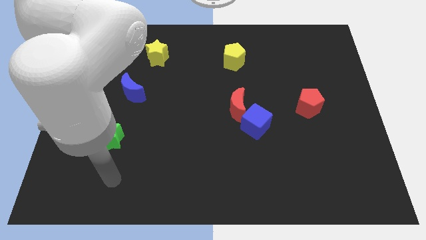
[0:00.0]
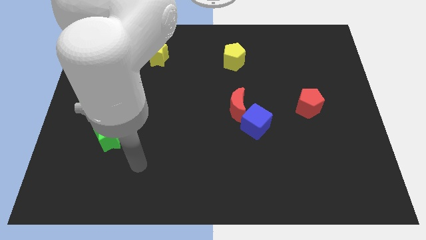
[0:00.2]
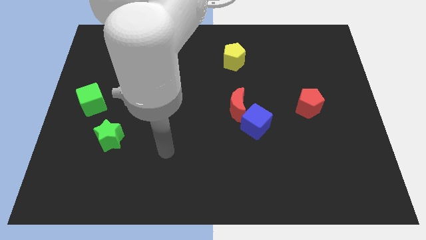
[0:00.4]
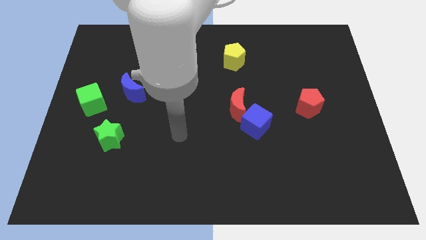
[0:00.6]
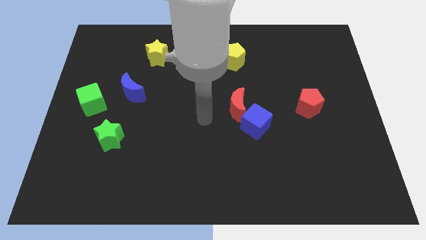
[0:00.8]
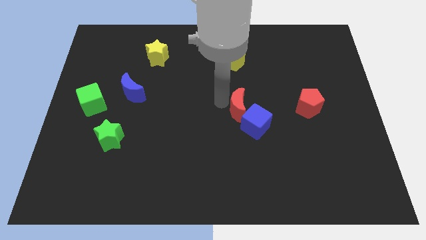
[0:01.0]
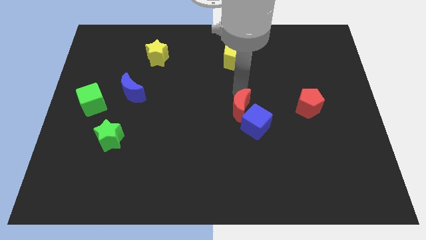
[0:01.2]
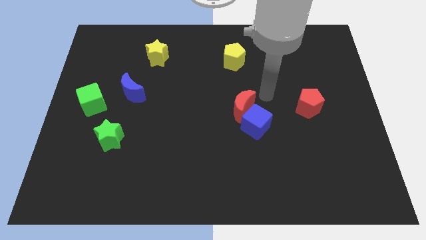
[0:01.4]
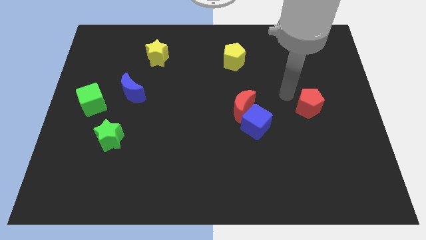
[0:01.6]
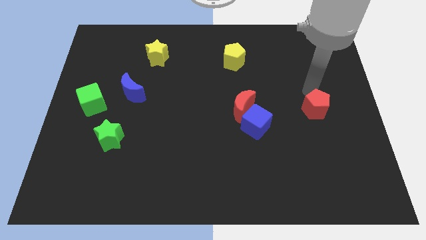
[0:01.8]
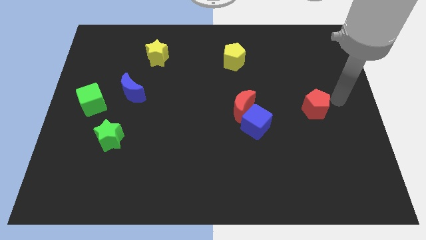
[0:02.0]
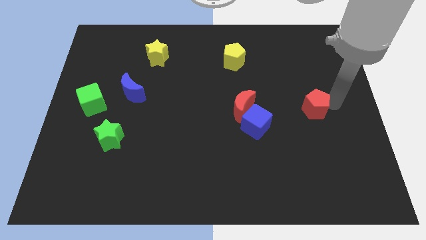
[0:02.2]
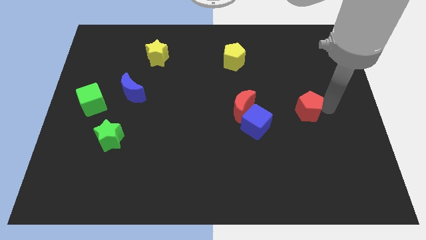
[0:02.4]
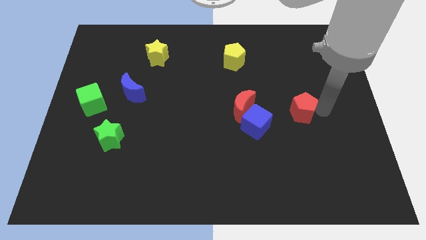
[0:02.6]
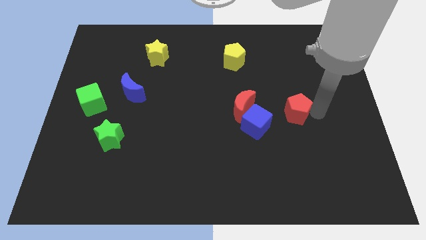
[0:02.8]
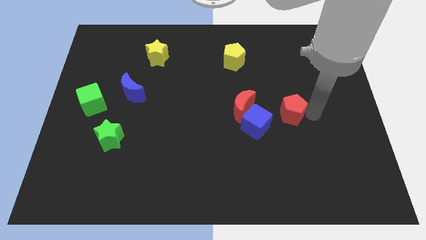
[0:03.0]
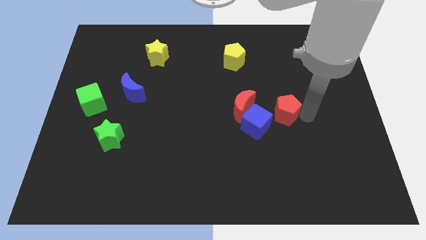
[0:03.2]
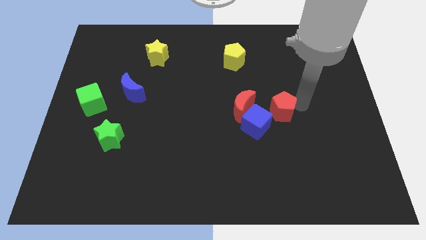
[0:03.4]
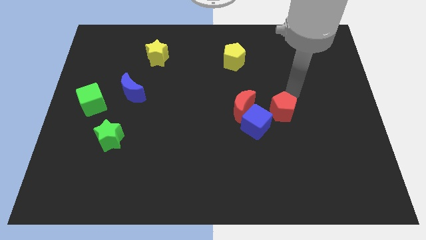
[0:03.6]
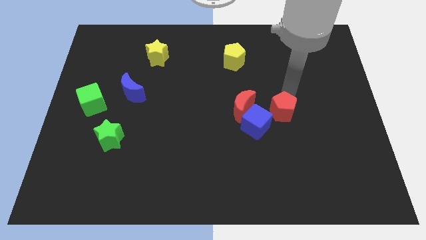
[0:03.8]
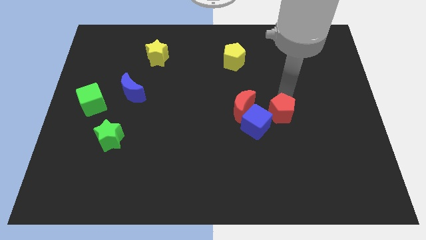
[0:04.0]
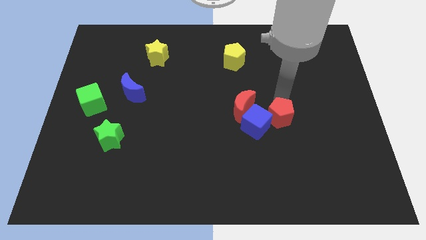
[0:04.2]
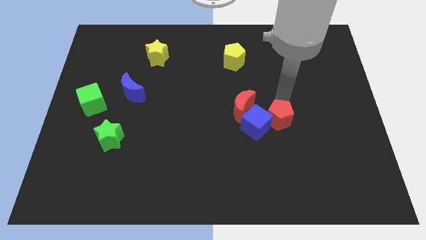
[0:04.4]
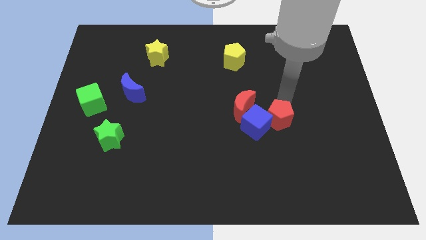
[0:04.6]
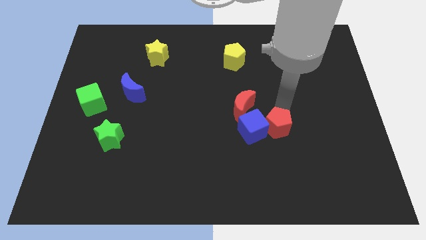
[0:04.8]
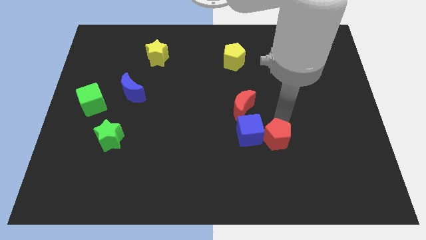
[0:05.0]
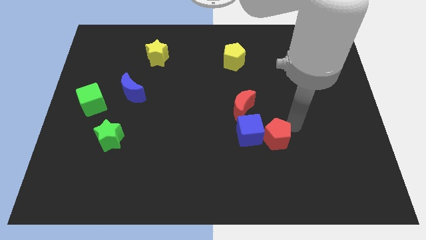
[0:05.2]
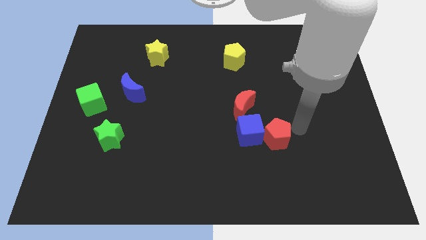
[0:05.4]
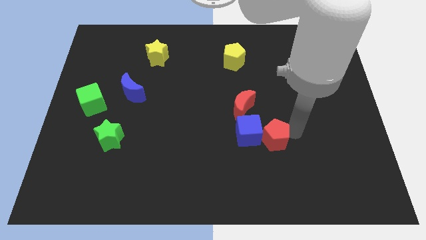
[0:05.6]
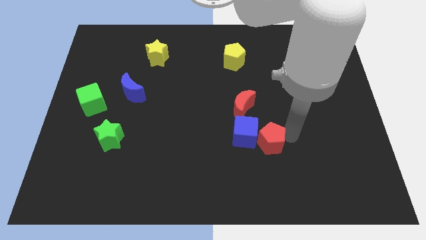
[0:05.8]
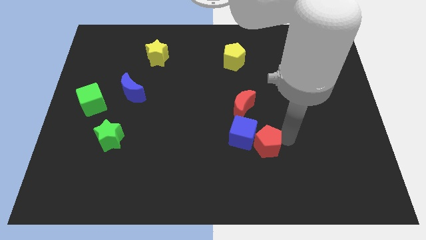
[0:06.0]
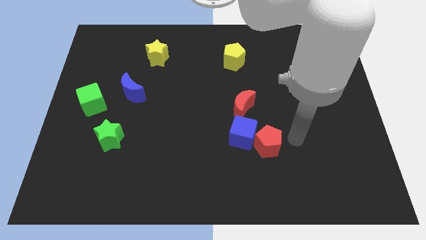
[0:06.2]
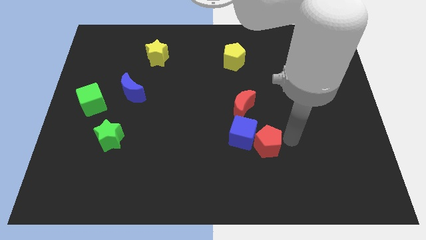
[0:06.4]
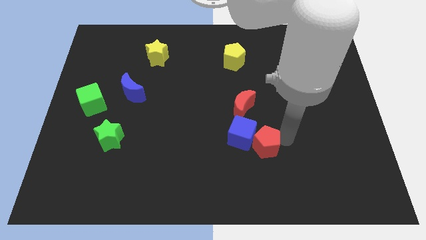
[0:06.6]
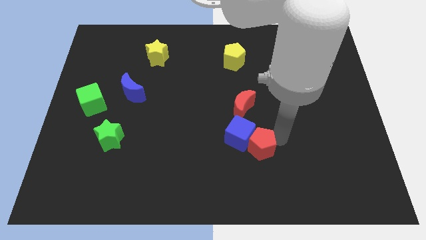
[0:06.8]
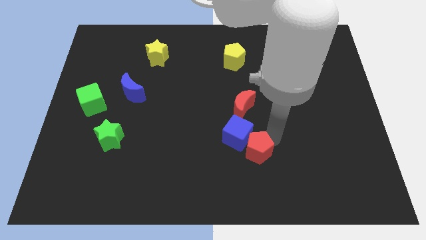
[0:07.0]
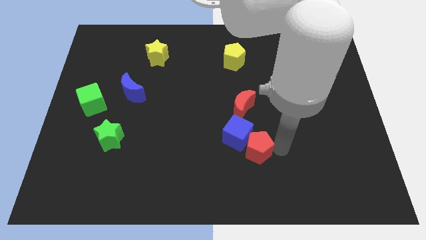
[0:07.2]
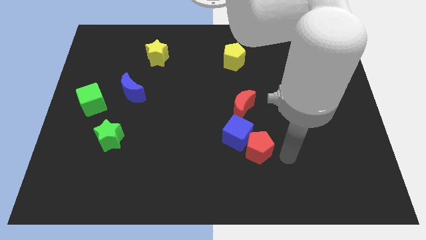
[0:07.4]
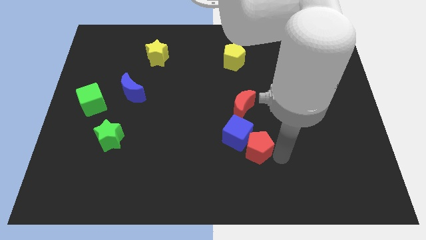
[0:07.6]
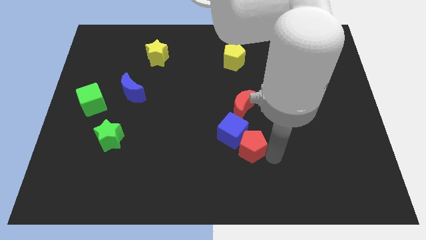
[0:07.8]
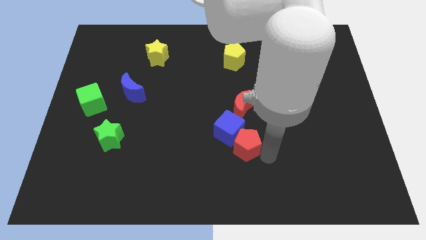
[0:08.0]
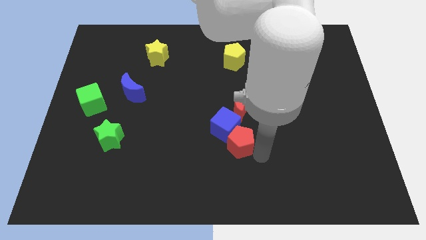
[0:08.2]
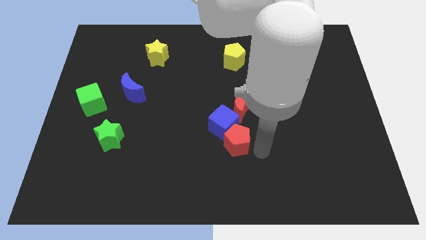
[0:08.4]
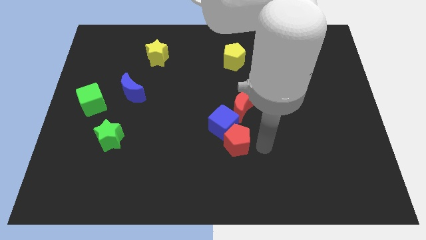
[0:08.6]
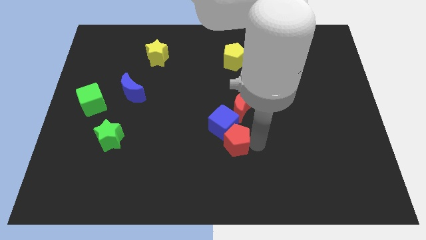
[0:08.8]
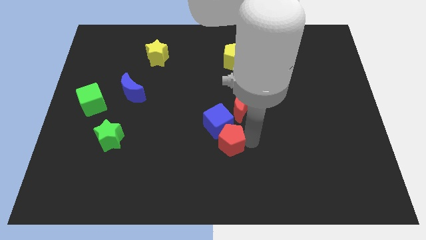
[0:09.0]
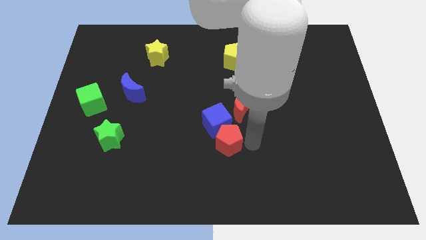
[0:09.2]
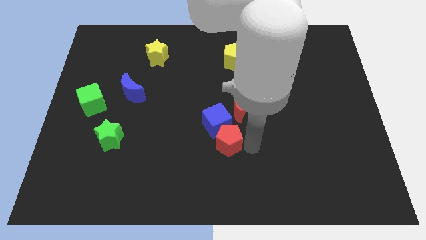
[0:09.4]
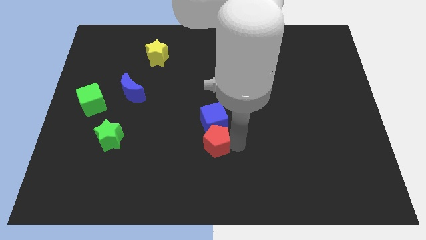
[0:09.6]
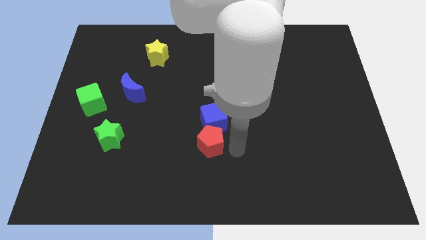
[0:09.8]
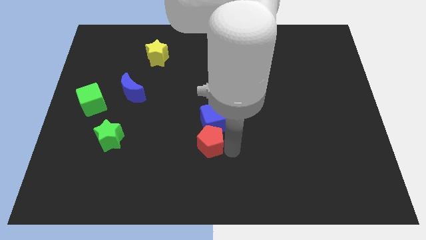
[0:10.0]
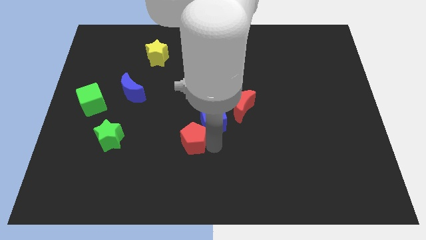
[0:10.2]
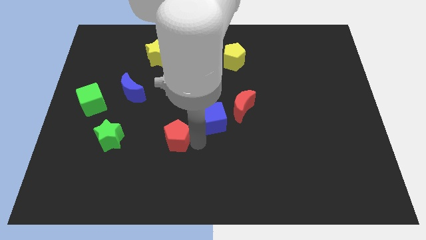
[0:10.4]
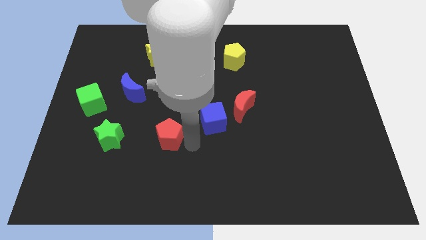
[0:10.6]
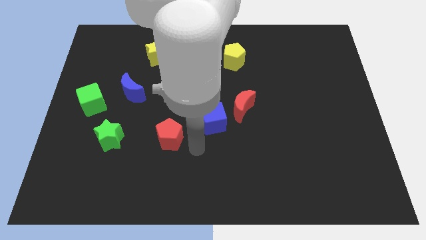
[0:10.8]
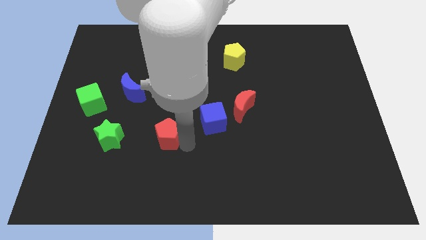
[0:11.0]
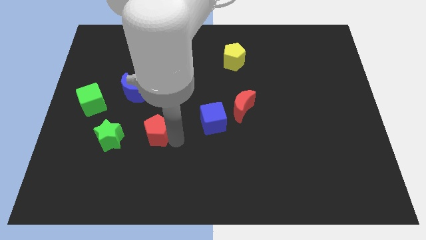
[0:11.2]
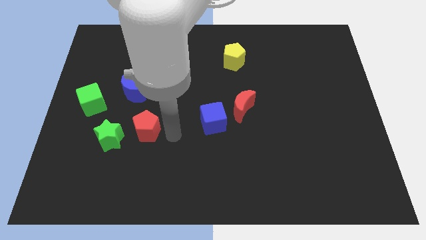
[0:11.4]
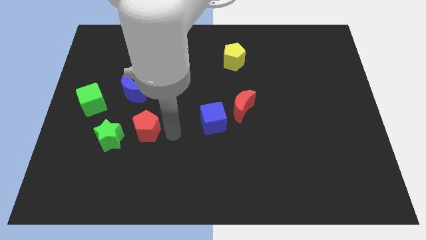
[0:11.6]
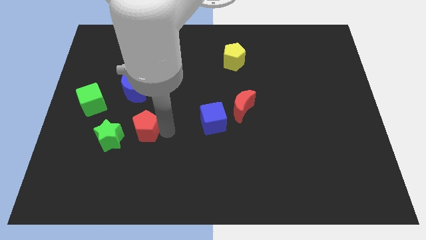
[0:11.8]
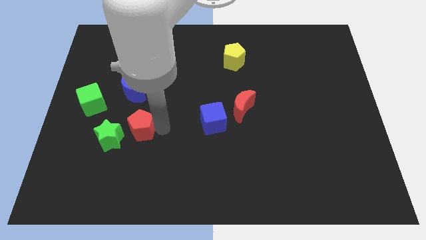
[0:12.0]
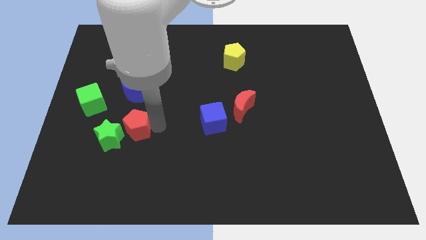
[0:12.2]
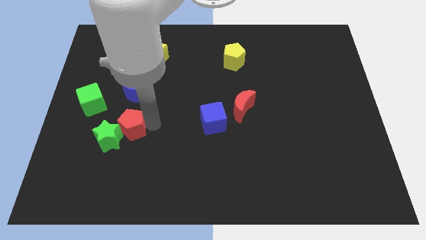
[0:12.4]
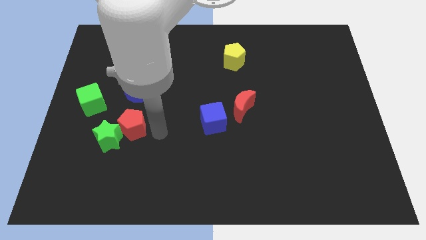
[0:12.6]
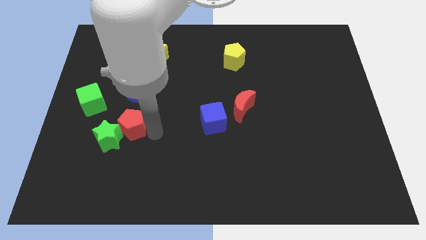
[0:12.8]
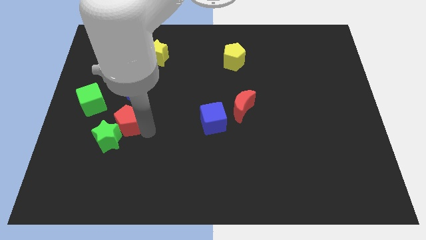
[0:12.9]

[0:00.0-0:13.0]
put the red pentagon diagonally down and to the right of the green cube

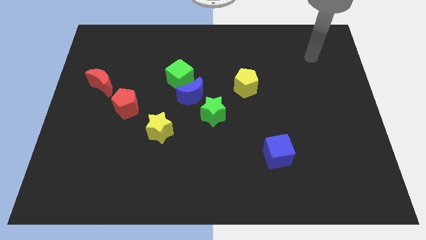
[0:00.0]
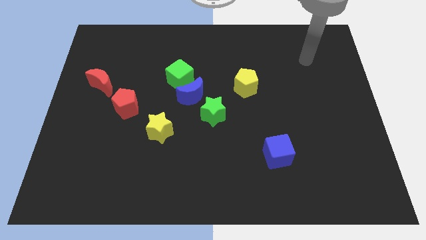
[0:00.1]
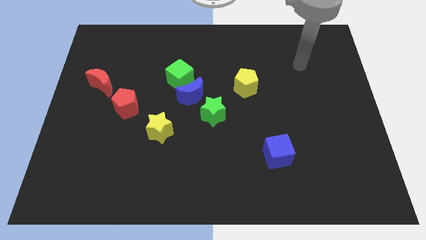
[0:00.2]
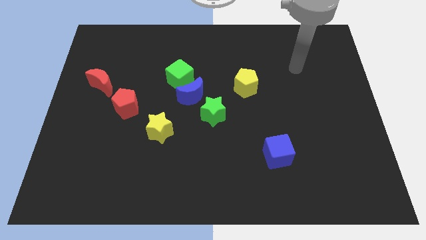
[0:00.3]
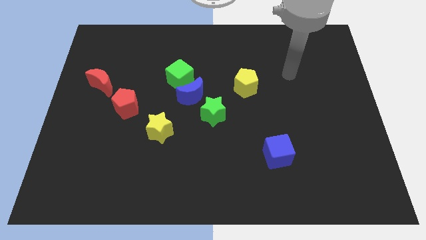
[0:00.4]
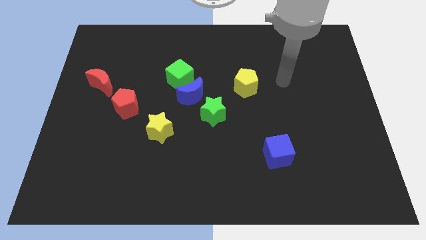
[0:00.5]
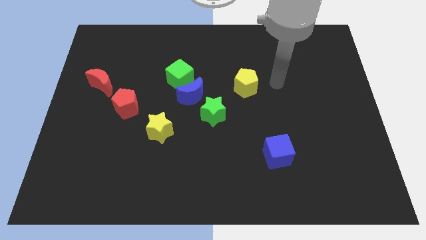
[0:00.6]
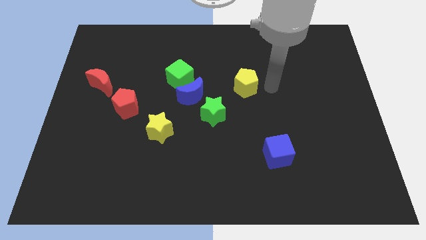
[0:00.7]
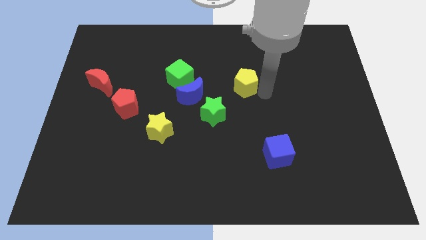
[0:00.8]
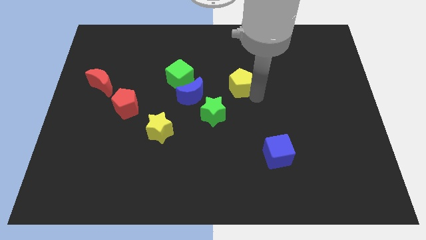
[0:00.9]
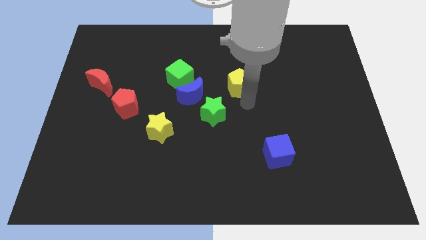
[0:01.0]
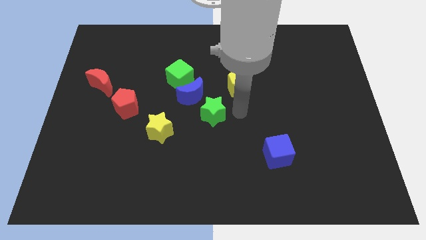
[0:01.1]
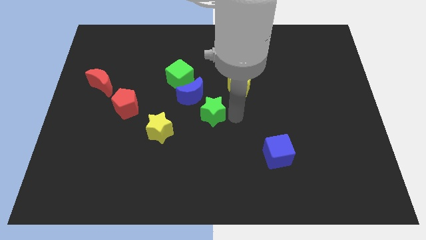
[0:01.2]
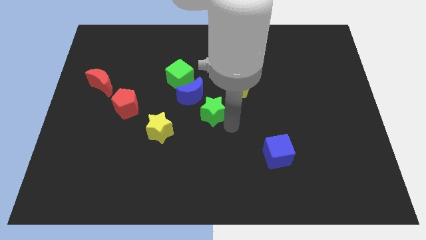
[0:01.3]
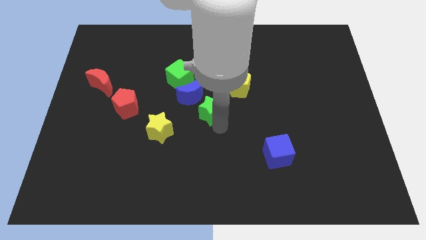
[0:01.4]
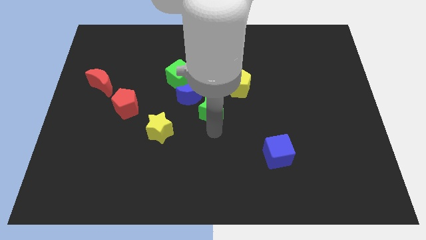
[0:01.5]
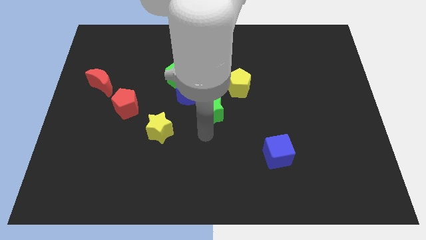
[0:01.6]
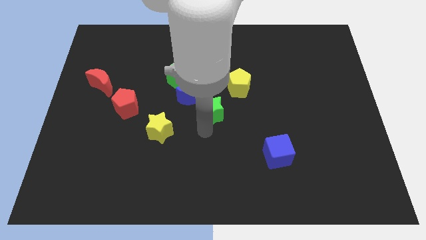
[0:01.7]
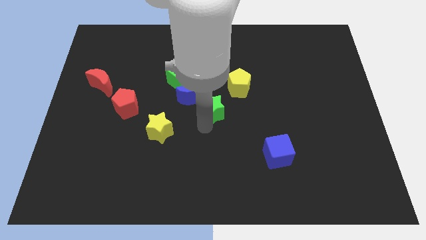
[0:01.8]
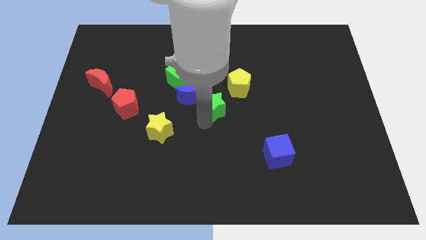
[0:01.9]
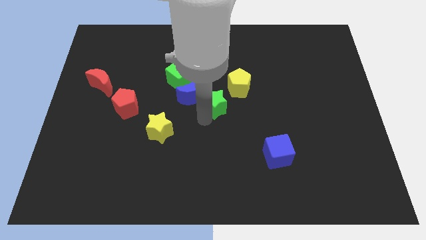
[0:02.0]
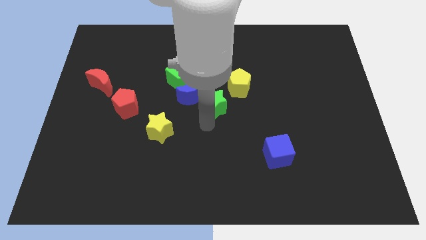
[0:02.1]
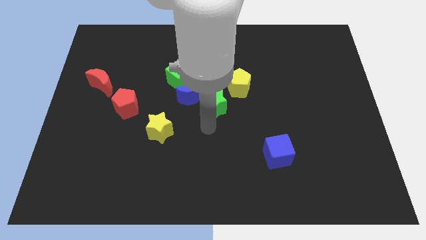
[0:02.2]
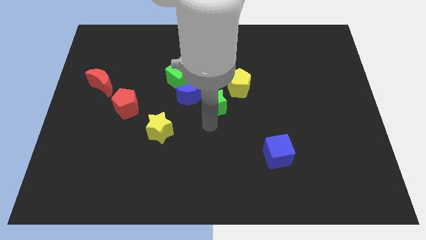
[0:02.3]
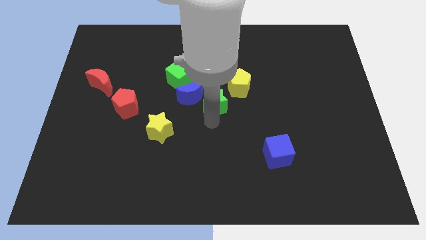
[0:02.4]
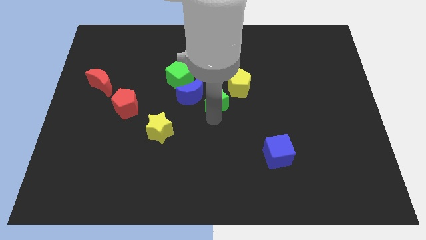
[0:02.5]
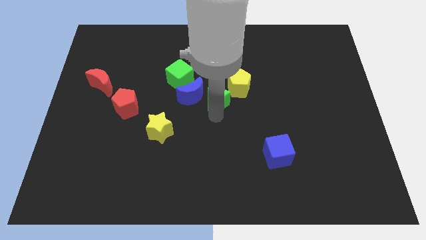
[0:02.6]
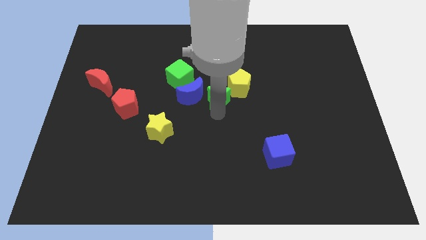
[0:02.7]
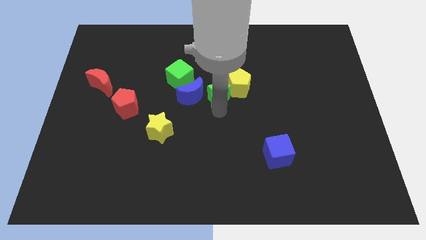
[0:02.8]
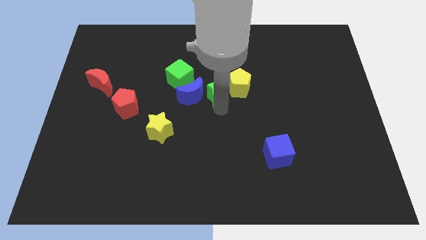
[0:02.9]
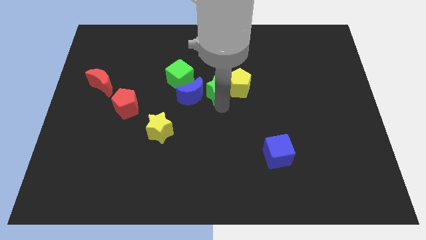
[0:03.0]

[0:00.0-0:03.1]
push the green star to the right side of the green cube
